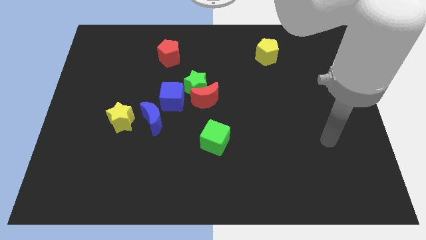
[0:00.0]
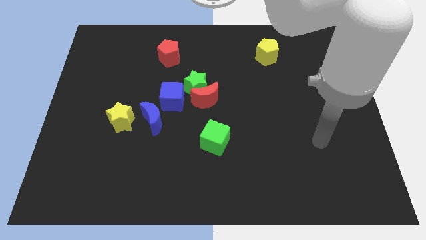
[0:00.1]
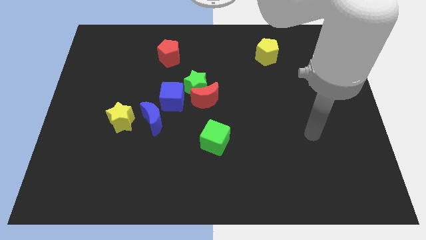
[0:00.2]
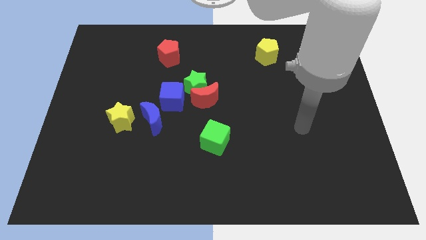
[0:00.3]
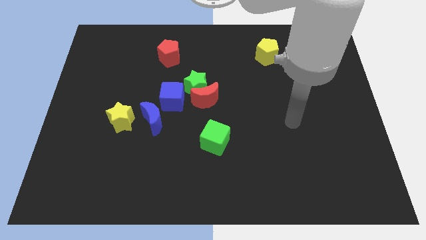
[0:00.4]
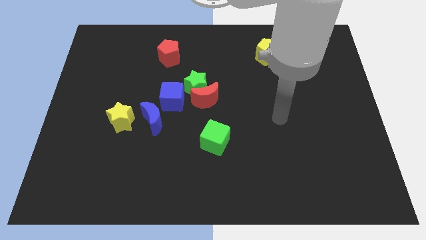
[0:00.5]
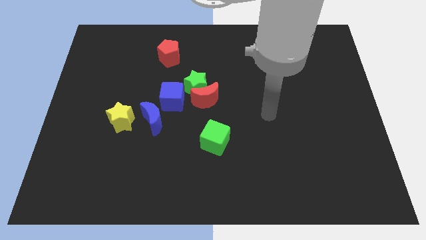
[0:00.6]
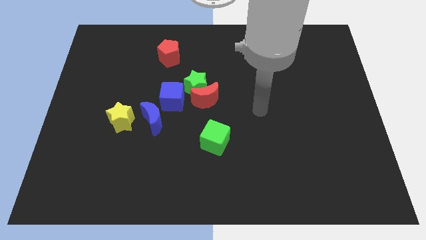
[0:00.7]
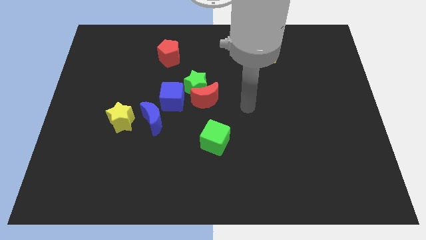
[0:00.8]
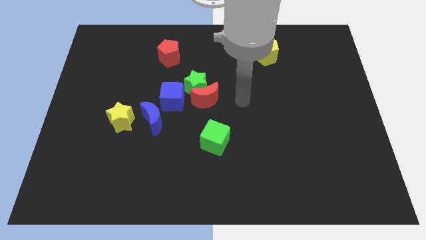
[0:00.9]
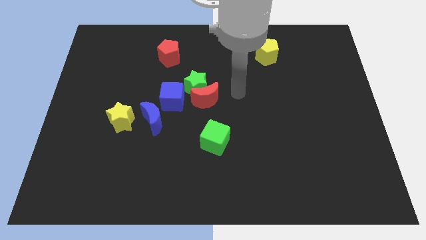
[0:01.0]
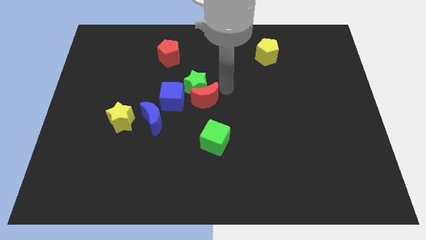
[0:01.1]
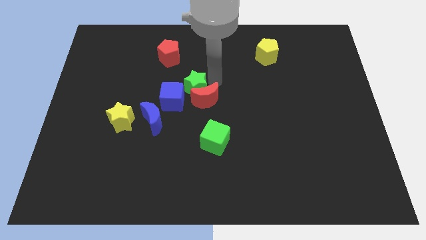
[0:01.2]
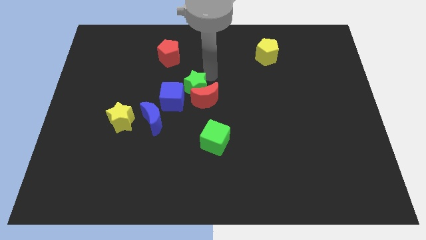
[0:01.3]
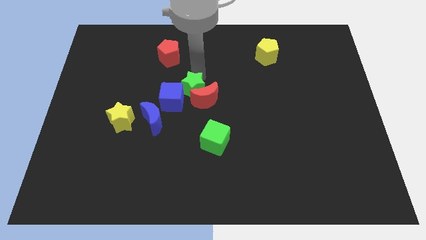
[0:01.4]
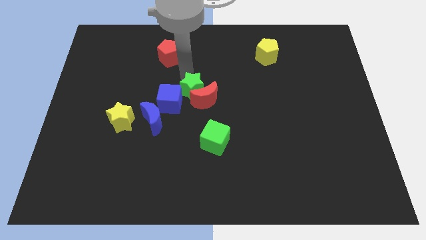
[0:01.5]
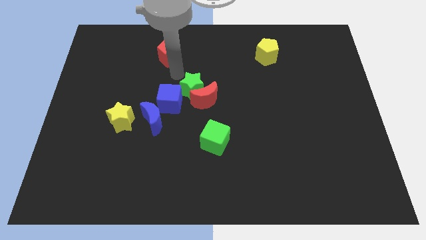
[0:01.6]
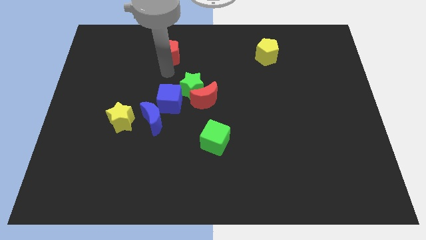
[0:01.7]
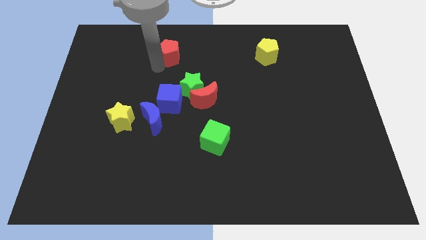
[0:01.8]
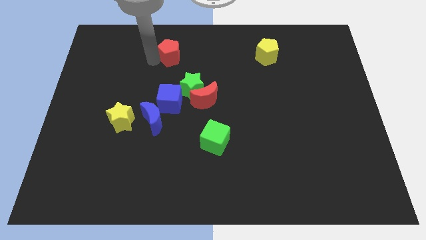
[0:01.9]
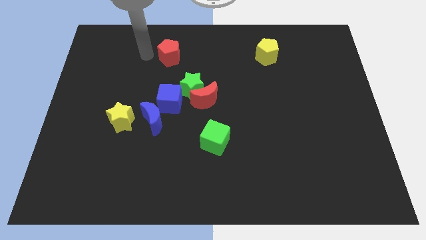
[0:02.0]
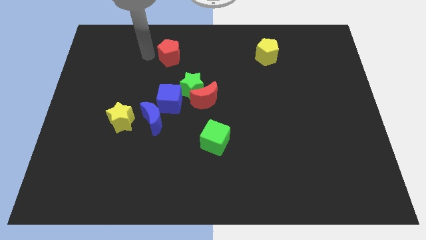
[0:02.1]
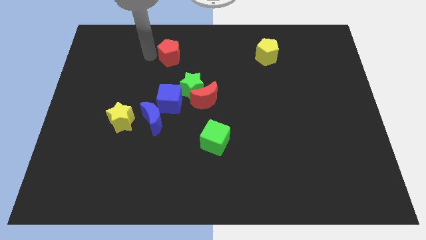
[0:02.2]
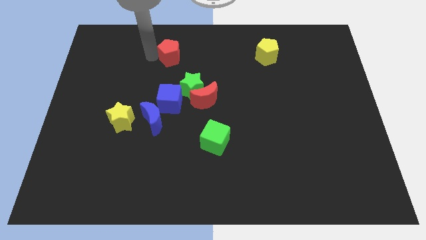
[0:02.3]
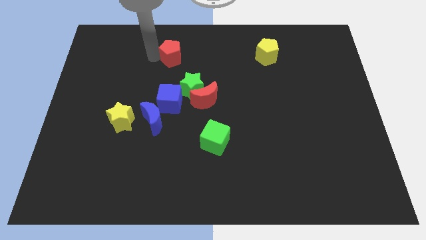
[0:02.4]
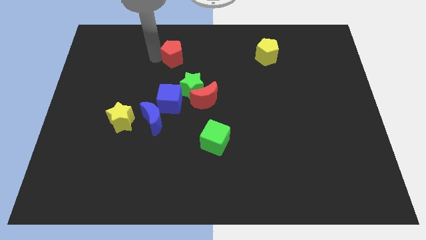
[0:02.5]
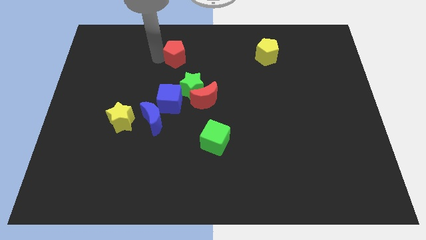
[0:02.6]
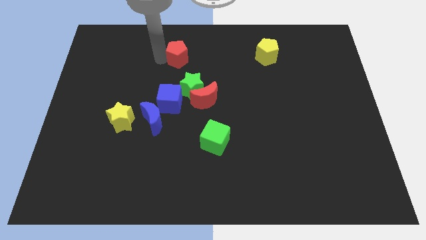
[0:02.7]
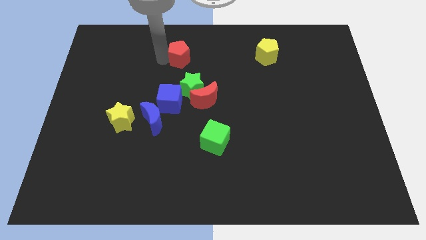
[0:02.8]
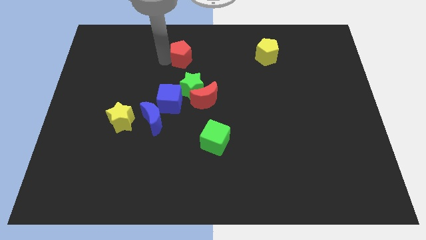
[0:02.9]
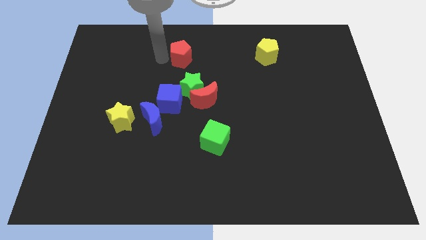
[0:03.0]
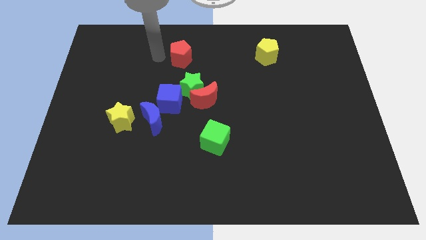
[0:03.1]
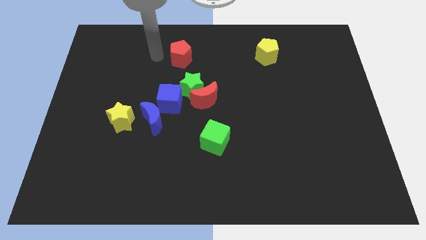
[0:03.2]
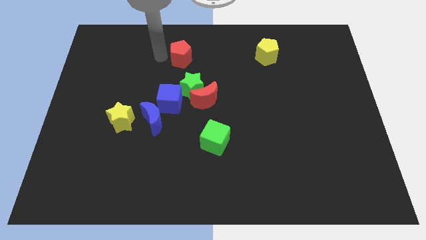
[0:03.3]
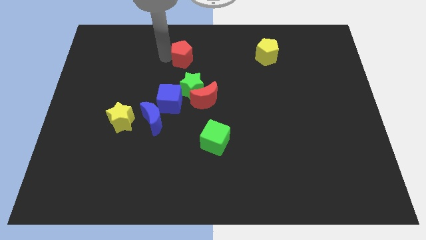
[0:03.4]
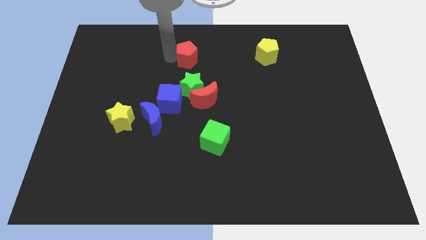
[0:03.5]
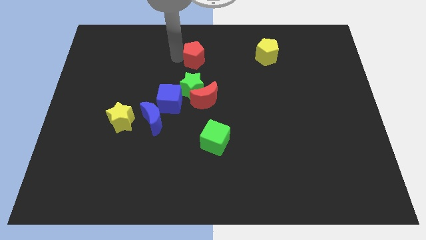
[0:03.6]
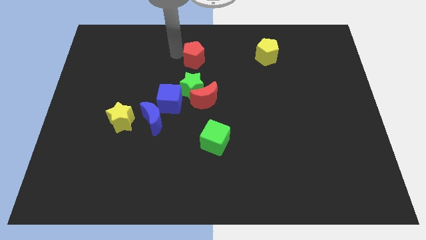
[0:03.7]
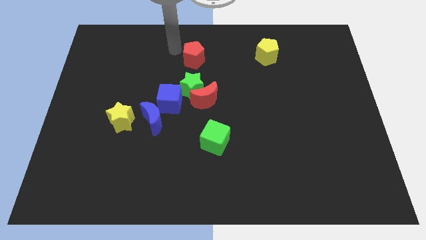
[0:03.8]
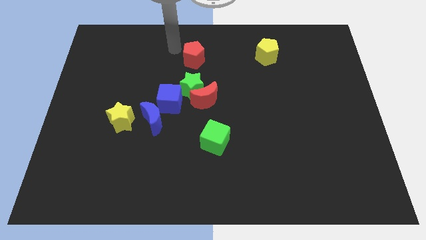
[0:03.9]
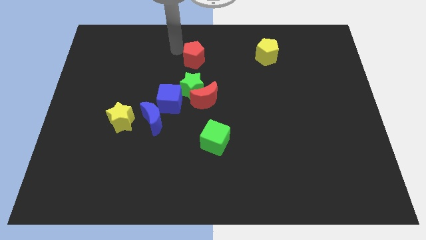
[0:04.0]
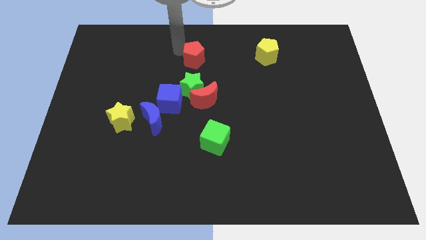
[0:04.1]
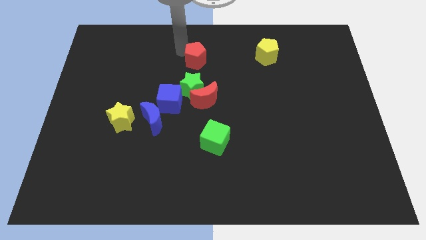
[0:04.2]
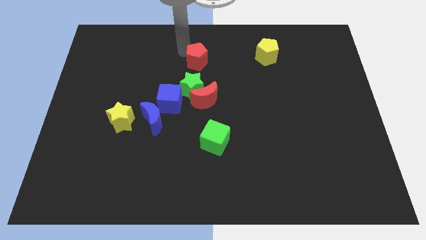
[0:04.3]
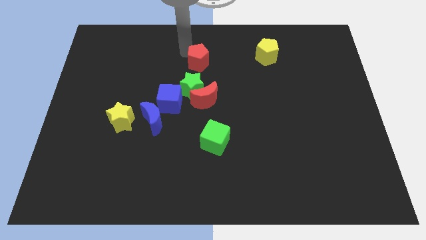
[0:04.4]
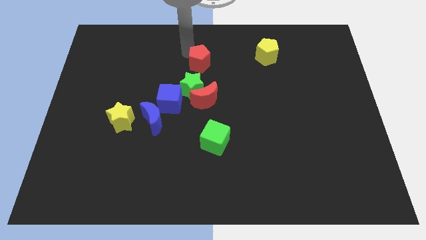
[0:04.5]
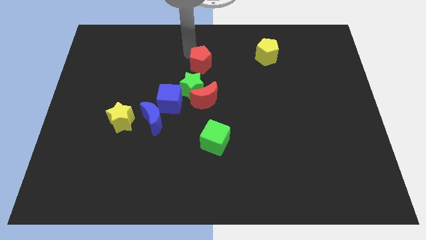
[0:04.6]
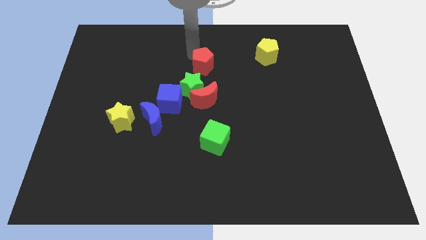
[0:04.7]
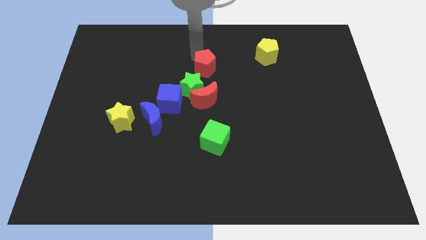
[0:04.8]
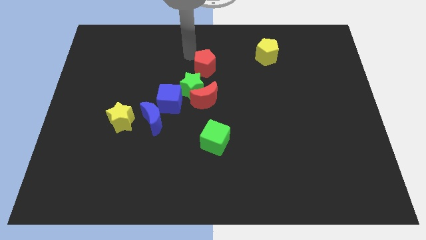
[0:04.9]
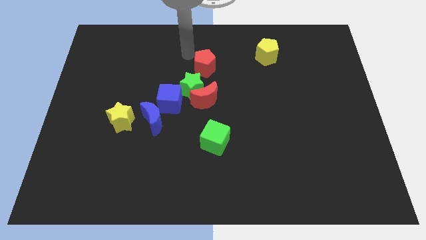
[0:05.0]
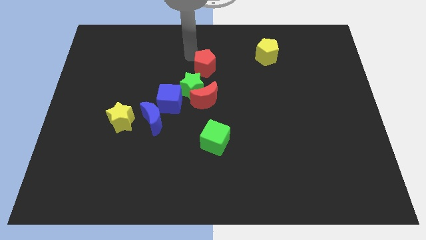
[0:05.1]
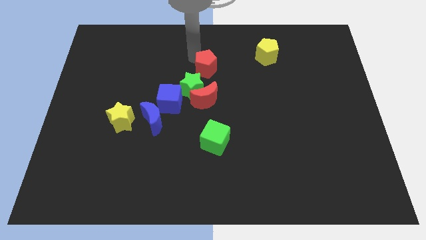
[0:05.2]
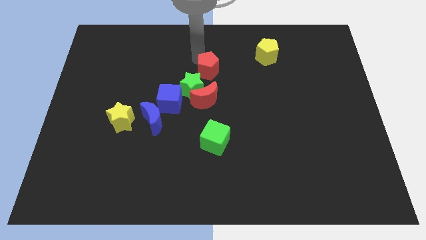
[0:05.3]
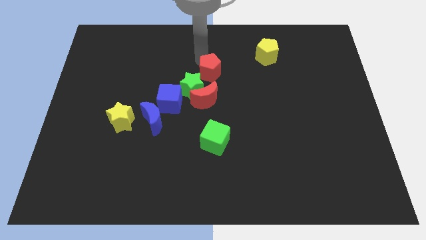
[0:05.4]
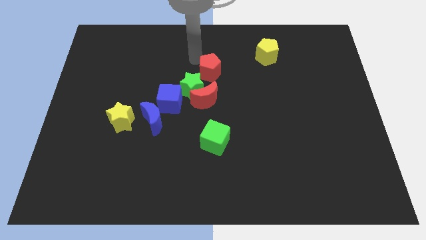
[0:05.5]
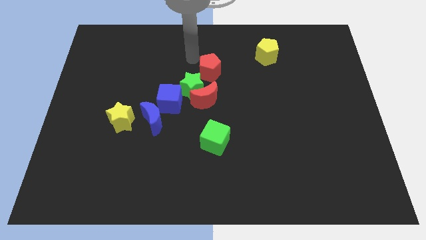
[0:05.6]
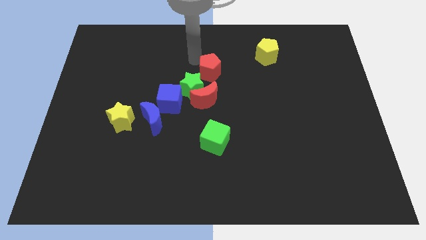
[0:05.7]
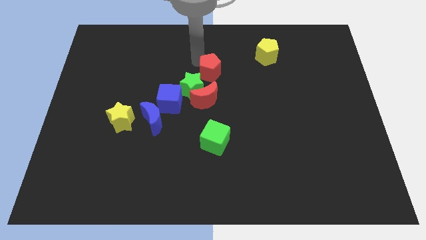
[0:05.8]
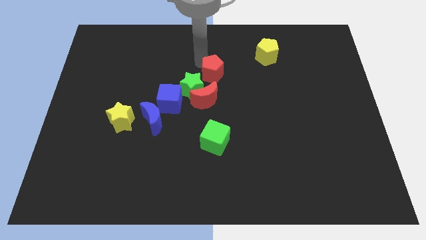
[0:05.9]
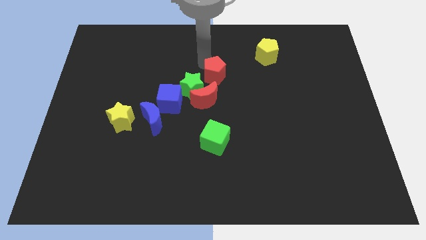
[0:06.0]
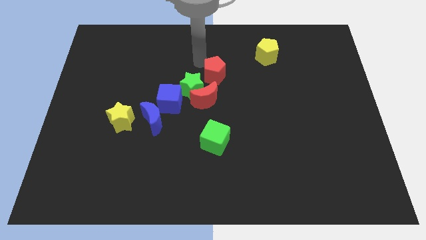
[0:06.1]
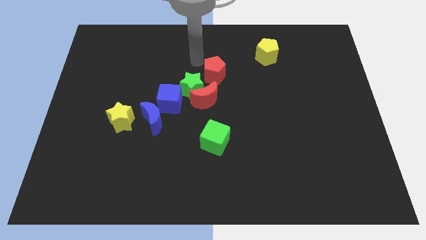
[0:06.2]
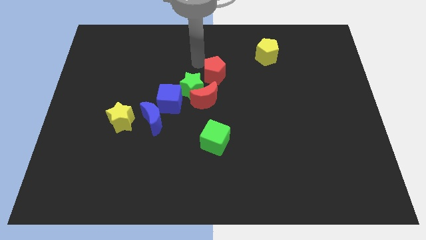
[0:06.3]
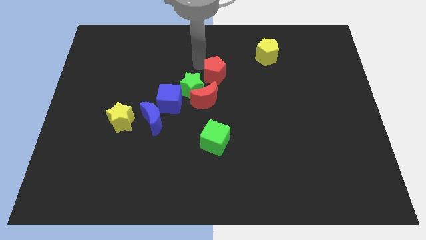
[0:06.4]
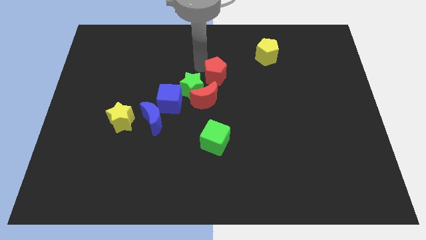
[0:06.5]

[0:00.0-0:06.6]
move the red pentagon right of the green star
